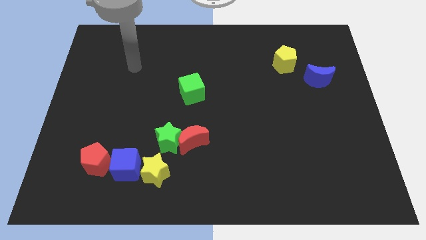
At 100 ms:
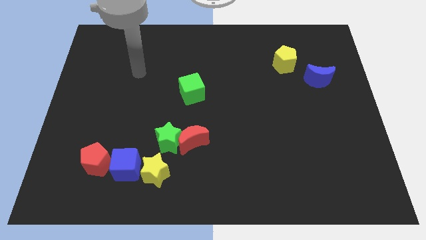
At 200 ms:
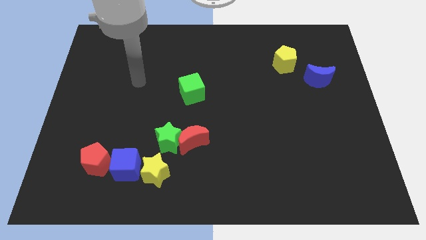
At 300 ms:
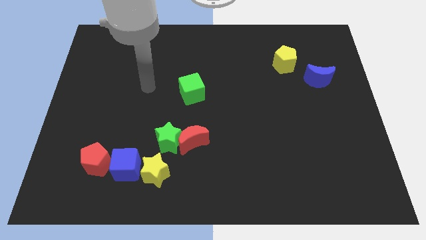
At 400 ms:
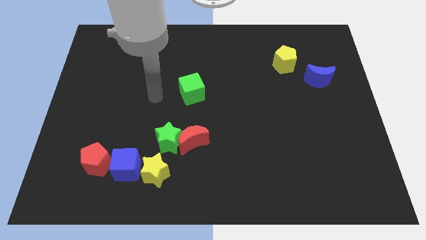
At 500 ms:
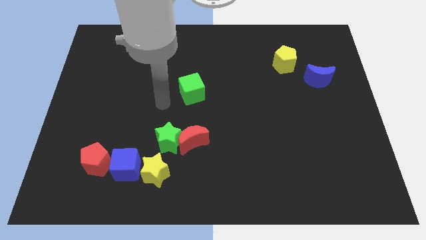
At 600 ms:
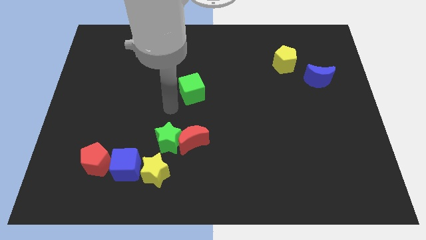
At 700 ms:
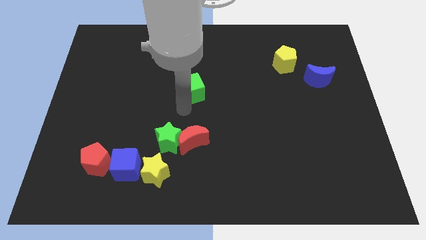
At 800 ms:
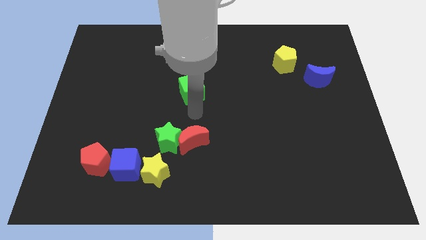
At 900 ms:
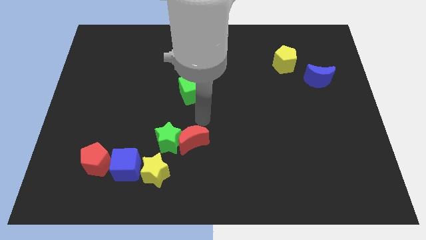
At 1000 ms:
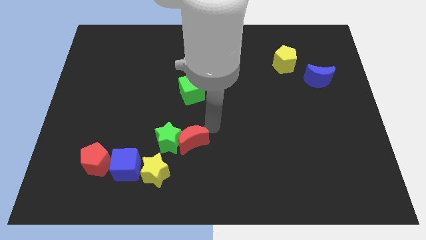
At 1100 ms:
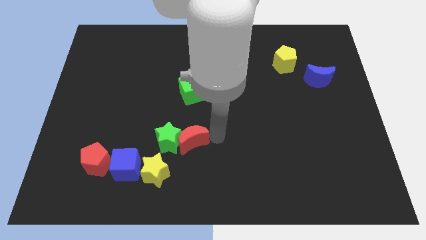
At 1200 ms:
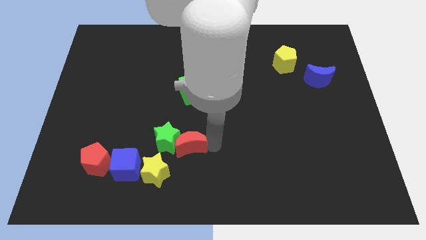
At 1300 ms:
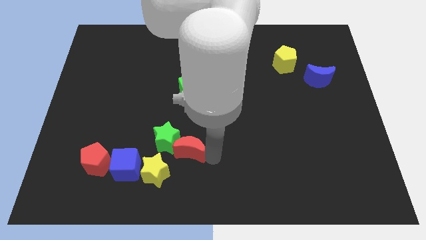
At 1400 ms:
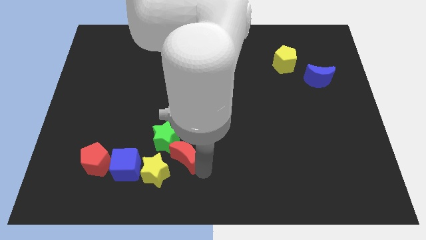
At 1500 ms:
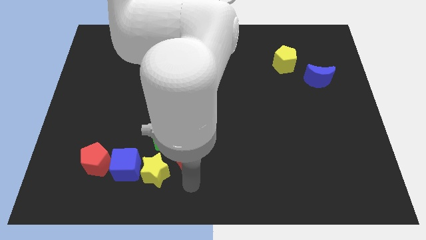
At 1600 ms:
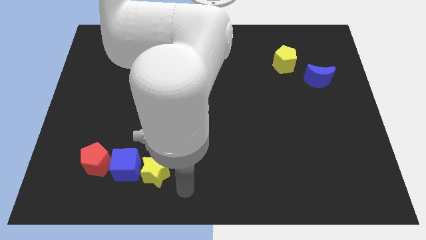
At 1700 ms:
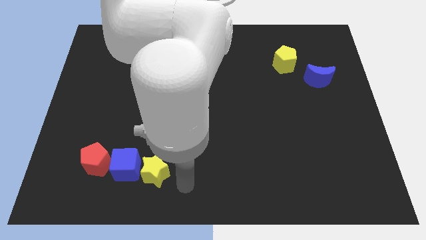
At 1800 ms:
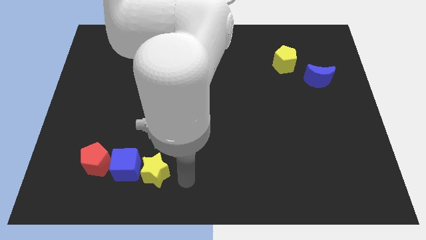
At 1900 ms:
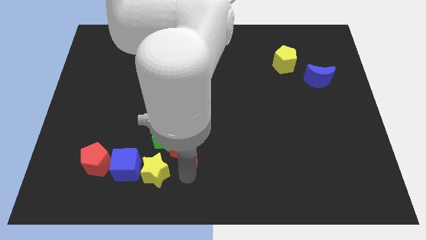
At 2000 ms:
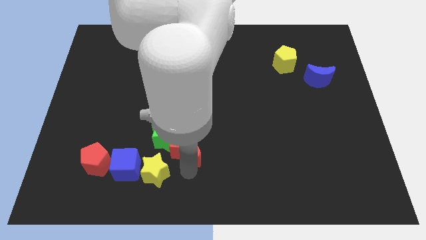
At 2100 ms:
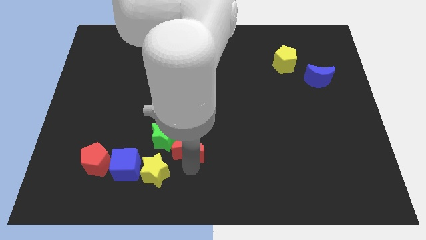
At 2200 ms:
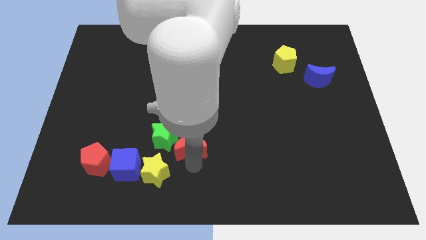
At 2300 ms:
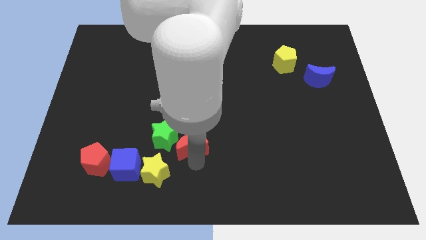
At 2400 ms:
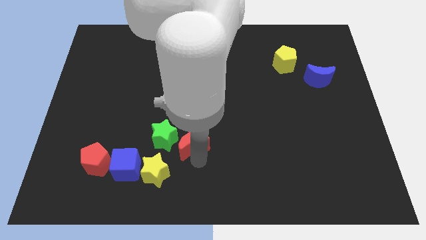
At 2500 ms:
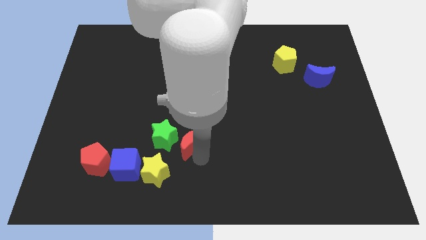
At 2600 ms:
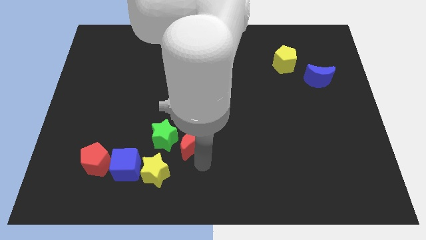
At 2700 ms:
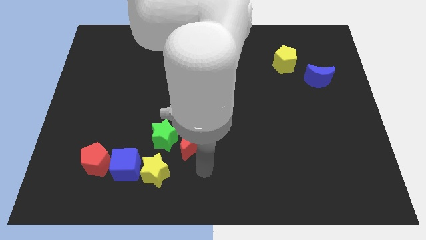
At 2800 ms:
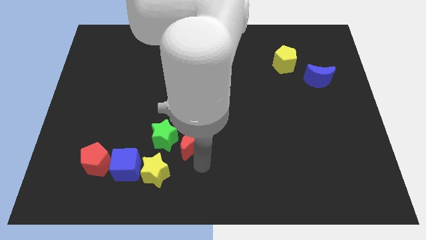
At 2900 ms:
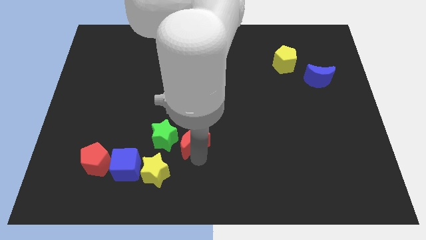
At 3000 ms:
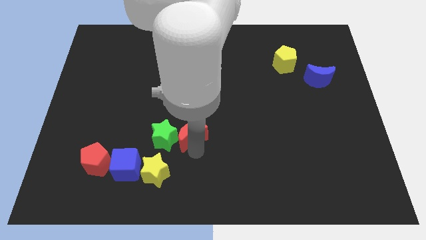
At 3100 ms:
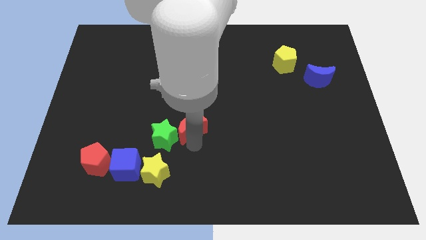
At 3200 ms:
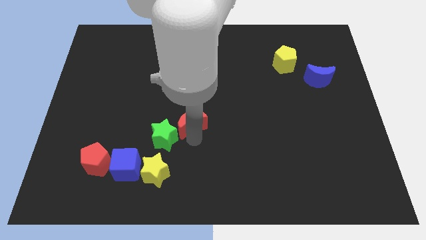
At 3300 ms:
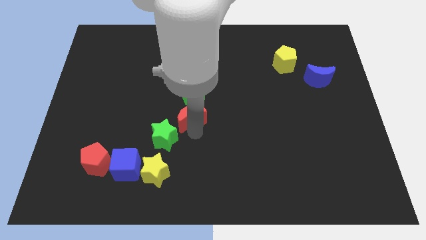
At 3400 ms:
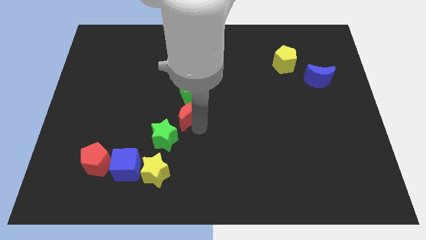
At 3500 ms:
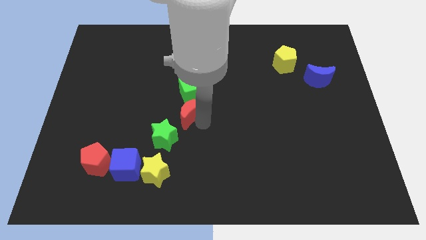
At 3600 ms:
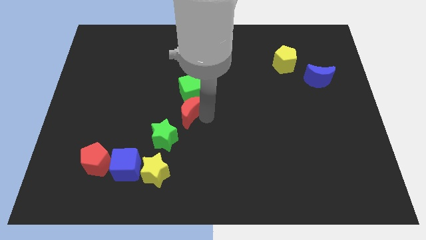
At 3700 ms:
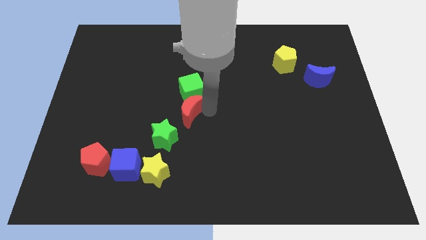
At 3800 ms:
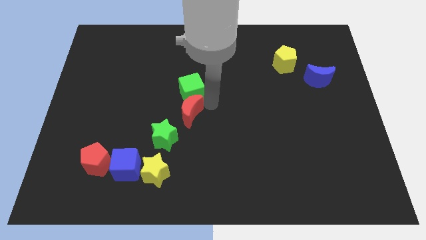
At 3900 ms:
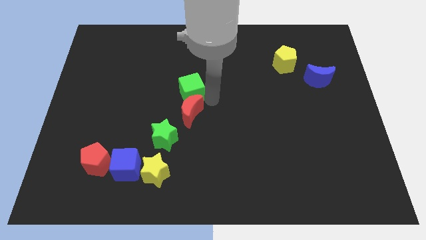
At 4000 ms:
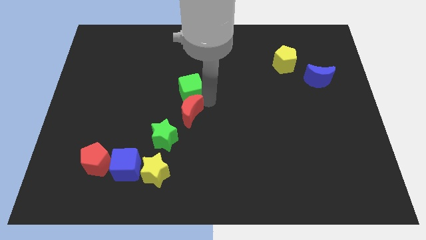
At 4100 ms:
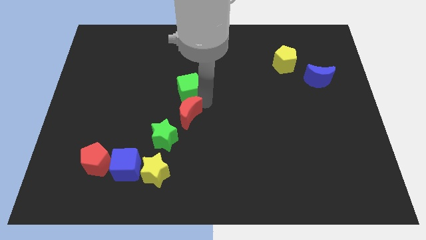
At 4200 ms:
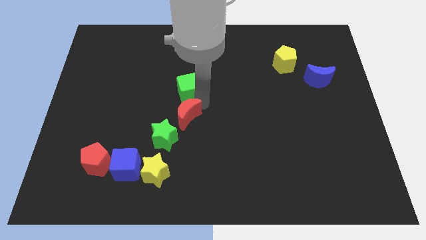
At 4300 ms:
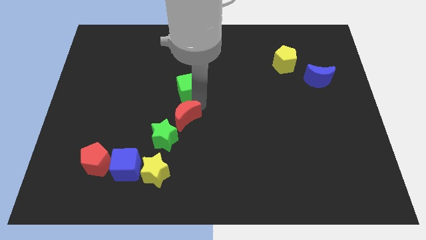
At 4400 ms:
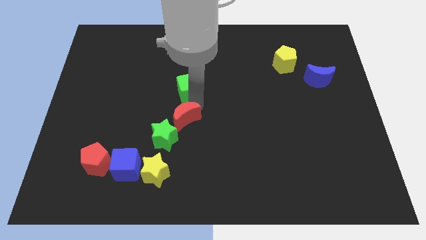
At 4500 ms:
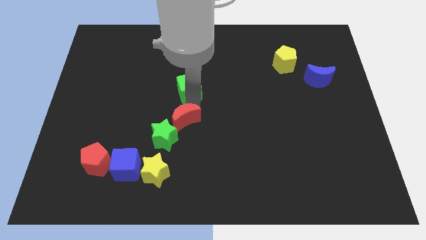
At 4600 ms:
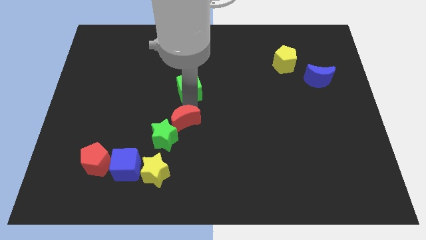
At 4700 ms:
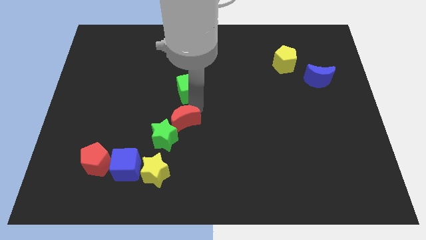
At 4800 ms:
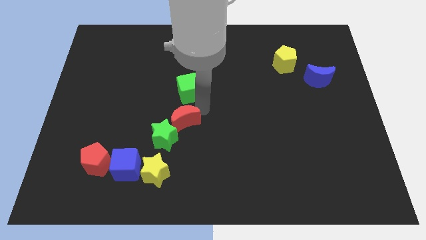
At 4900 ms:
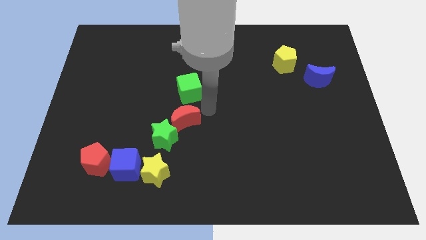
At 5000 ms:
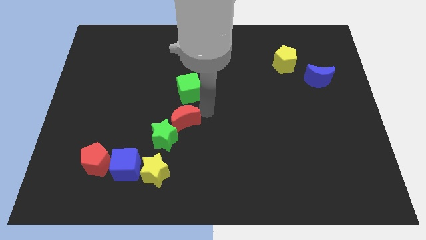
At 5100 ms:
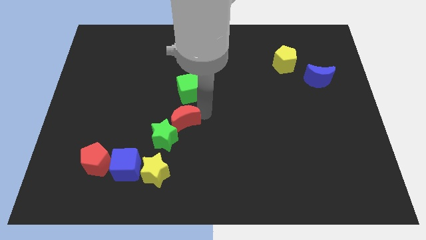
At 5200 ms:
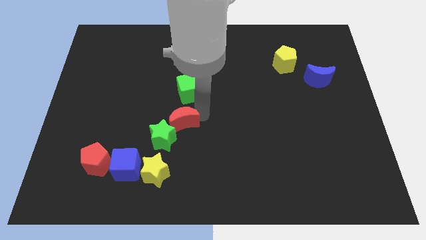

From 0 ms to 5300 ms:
push the red moon to the top of the yellow star

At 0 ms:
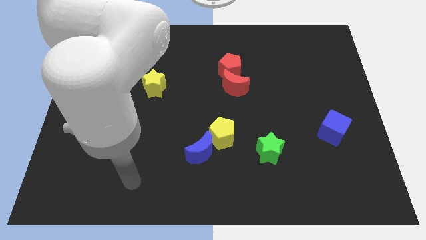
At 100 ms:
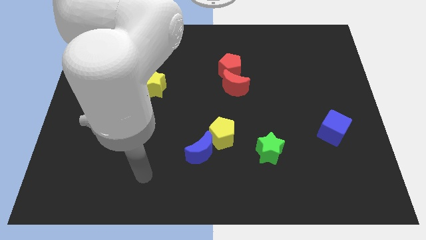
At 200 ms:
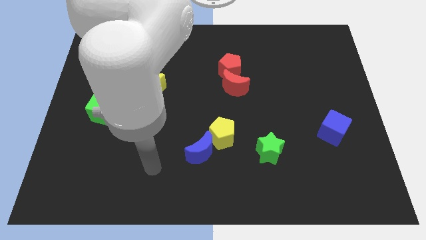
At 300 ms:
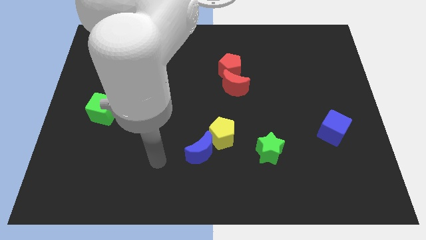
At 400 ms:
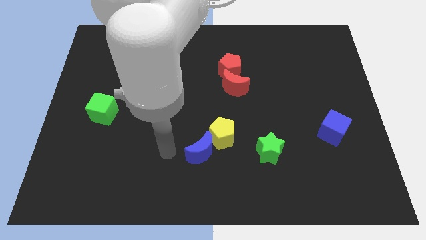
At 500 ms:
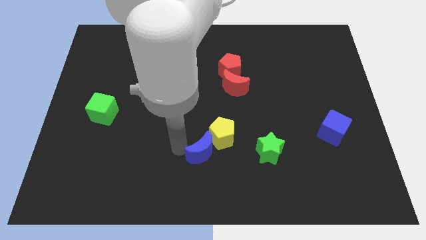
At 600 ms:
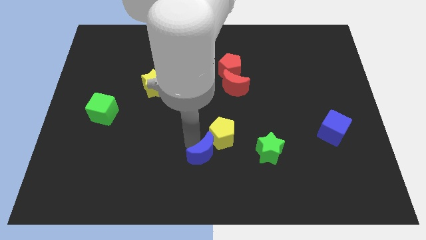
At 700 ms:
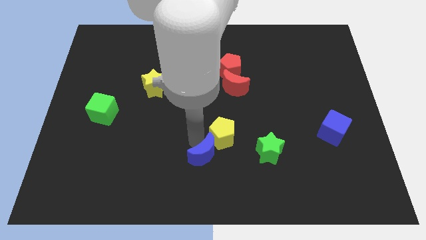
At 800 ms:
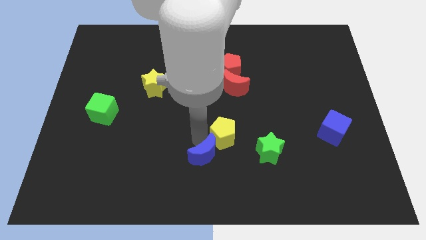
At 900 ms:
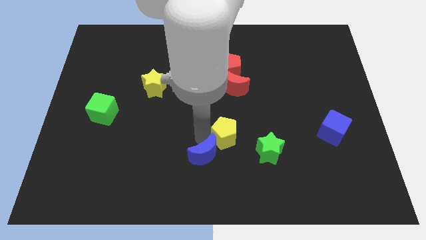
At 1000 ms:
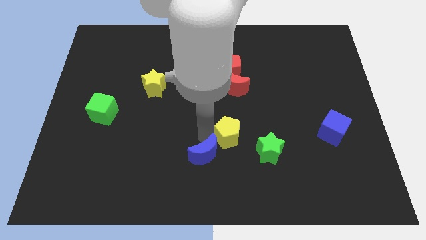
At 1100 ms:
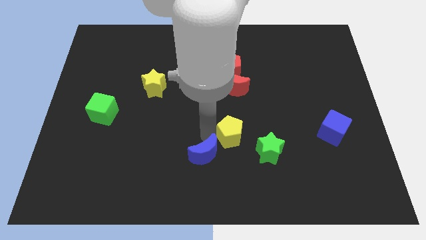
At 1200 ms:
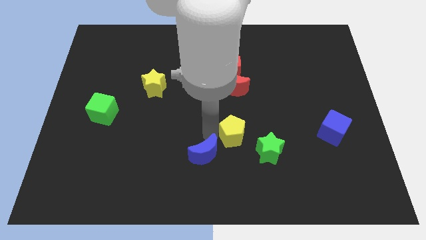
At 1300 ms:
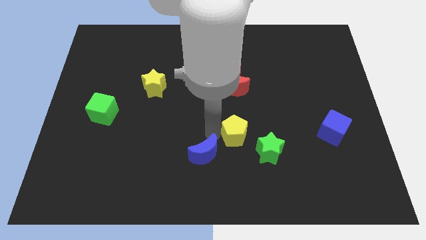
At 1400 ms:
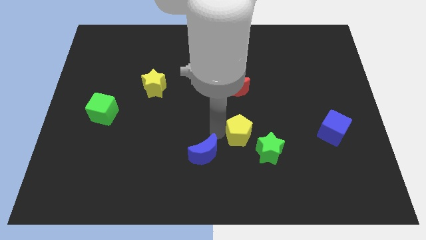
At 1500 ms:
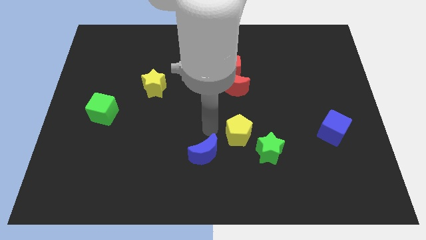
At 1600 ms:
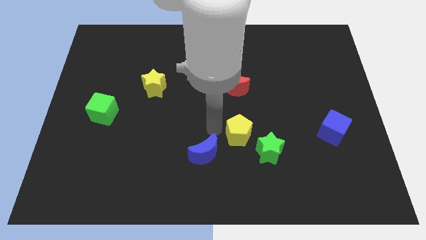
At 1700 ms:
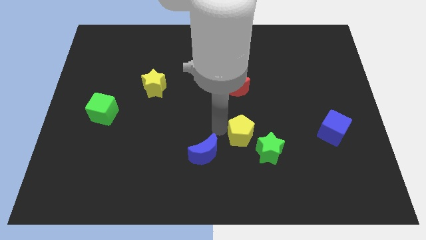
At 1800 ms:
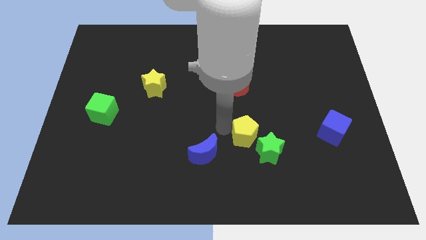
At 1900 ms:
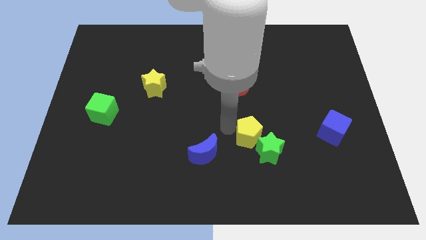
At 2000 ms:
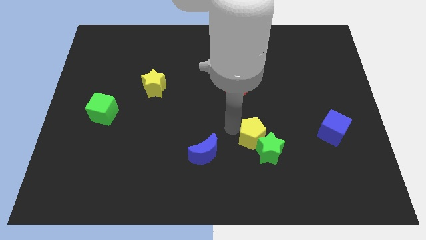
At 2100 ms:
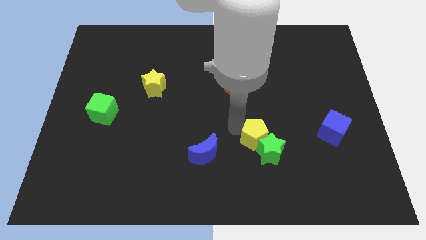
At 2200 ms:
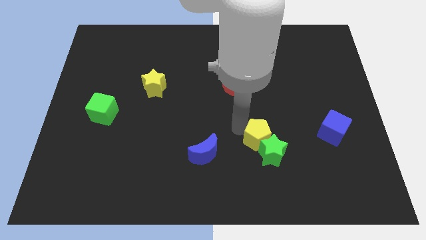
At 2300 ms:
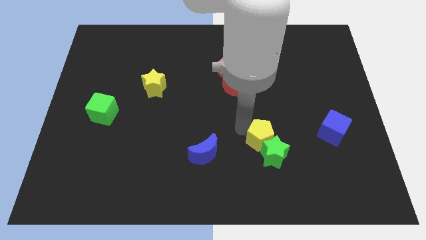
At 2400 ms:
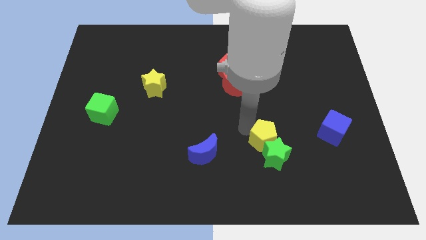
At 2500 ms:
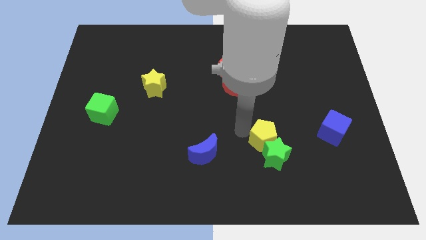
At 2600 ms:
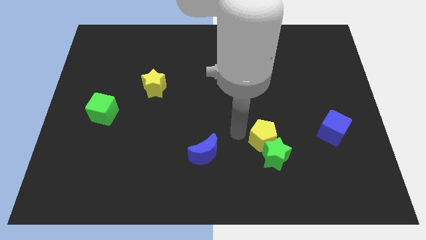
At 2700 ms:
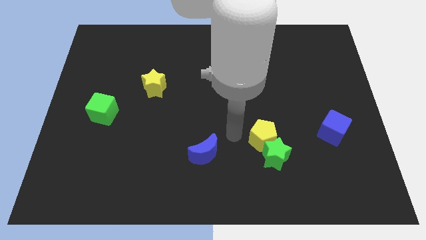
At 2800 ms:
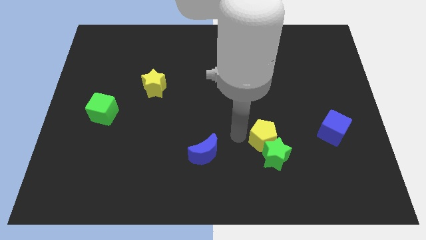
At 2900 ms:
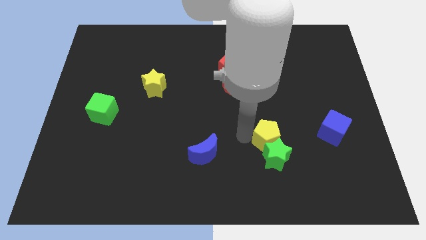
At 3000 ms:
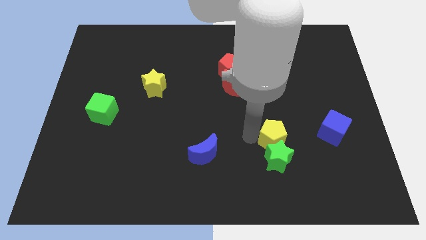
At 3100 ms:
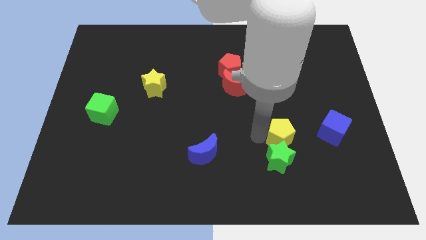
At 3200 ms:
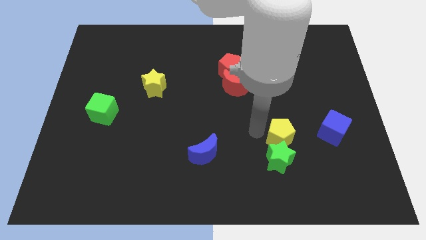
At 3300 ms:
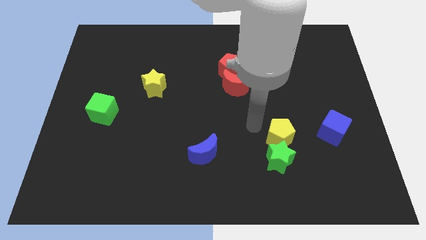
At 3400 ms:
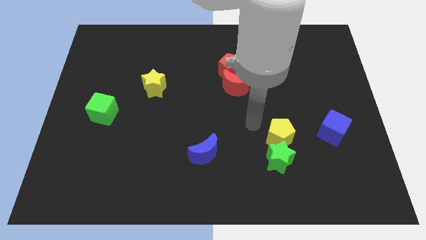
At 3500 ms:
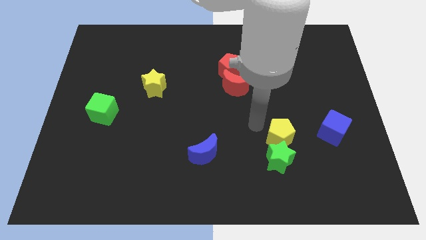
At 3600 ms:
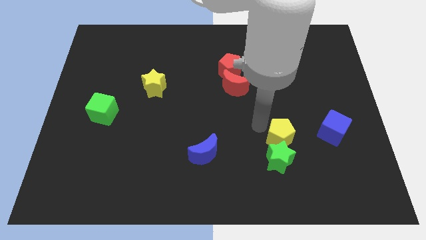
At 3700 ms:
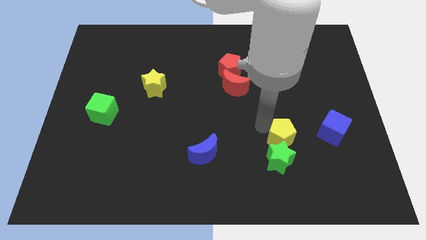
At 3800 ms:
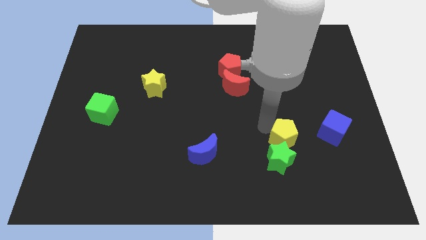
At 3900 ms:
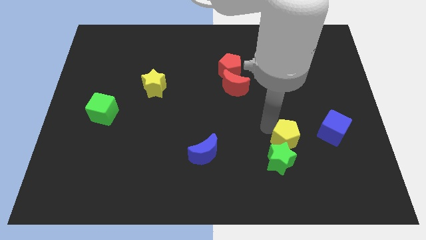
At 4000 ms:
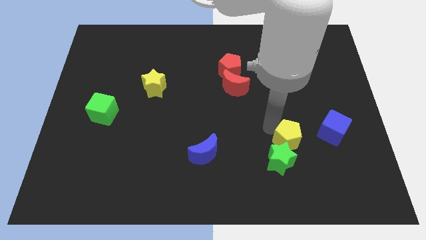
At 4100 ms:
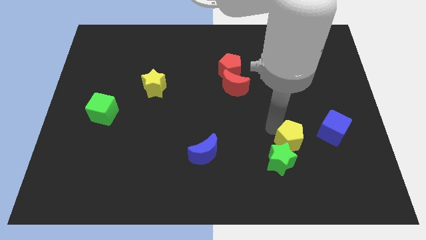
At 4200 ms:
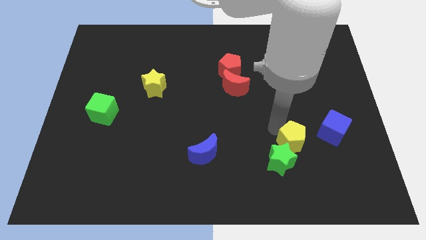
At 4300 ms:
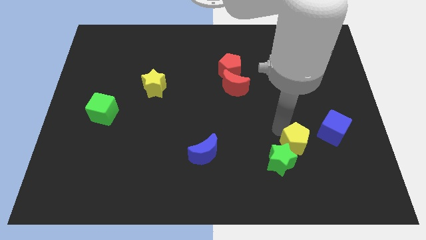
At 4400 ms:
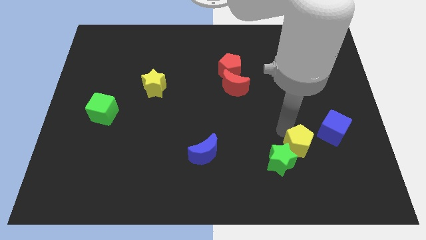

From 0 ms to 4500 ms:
slide the yellow pentagon just right of the green star
